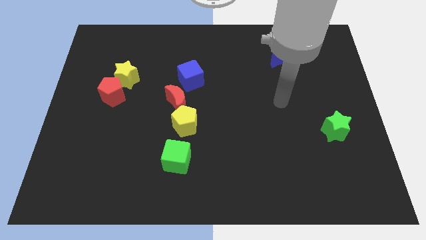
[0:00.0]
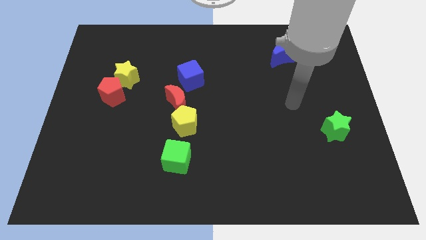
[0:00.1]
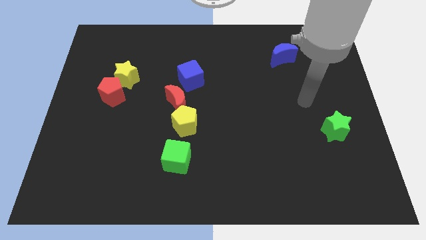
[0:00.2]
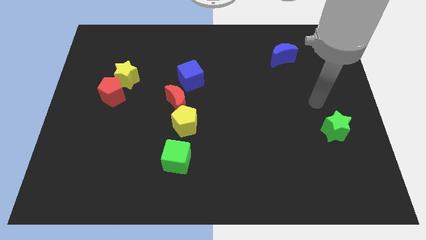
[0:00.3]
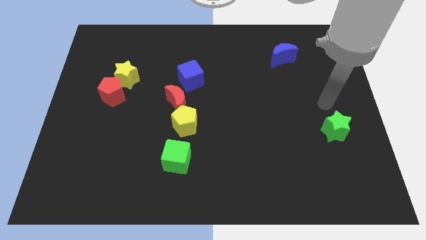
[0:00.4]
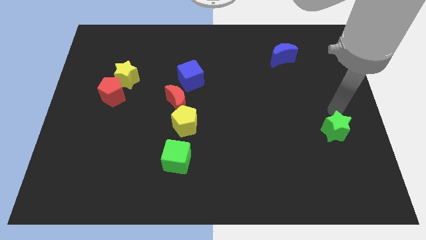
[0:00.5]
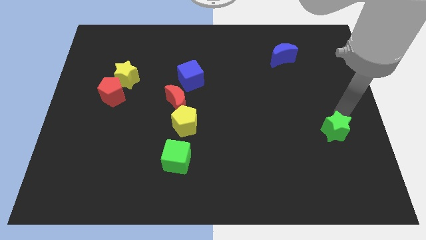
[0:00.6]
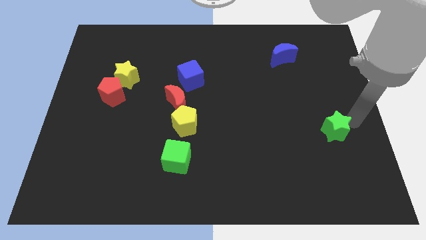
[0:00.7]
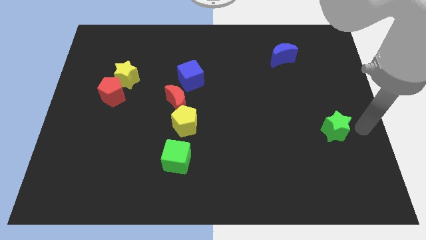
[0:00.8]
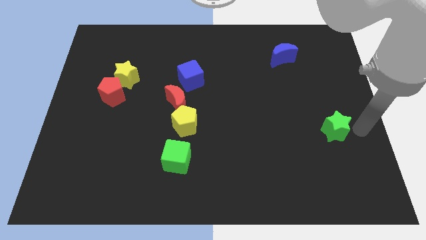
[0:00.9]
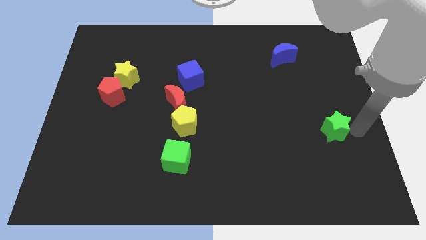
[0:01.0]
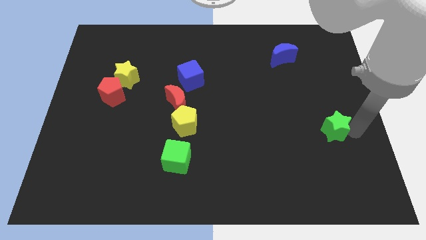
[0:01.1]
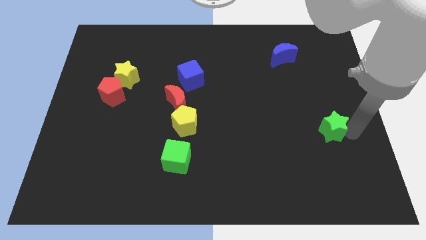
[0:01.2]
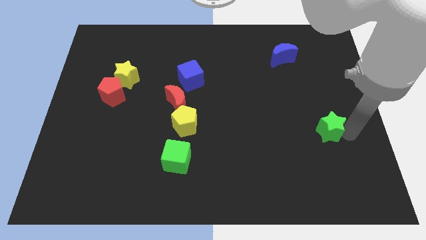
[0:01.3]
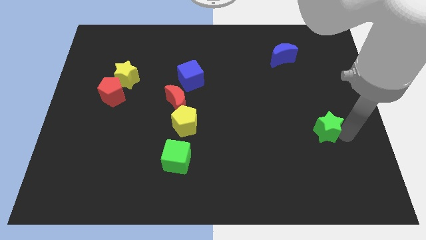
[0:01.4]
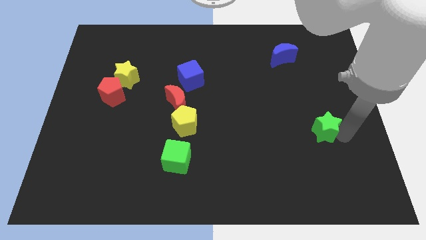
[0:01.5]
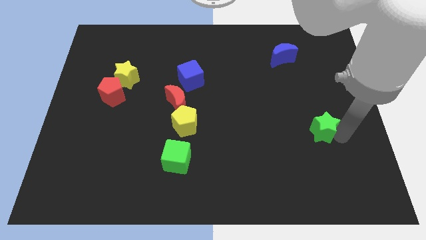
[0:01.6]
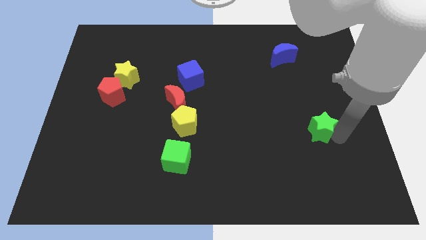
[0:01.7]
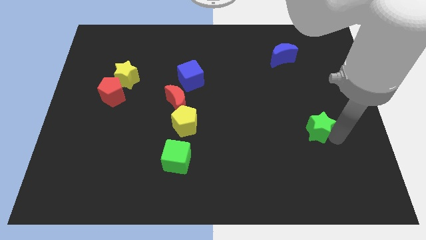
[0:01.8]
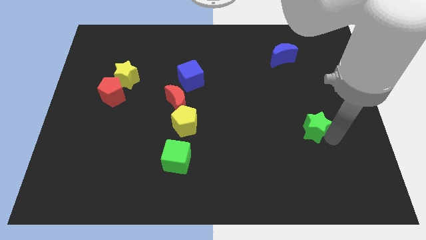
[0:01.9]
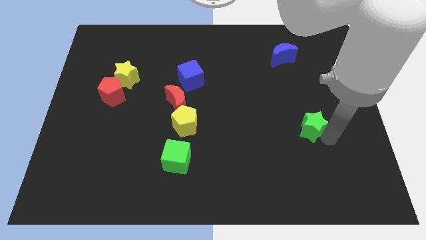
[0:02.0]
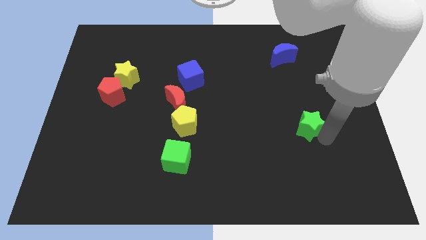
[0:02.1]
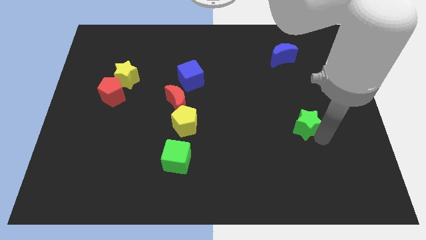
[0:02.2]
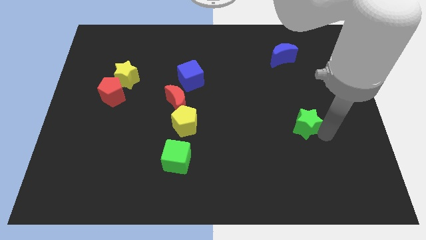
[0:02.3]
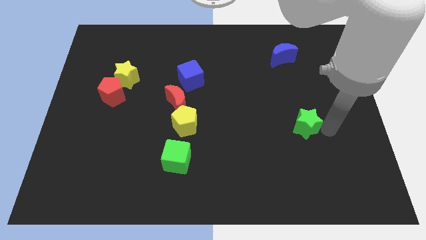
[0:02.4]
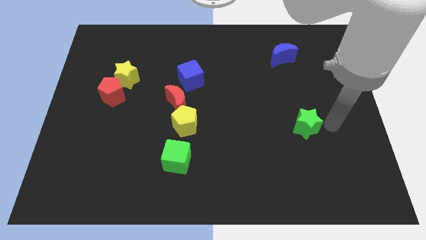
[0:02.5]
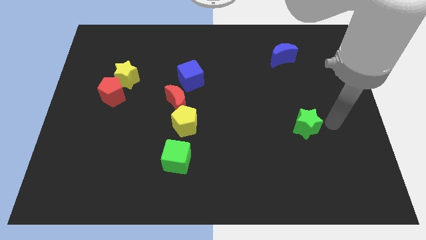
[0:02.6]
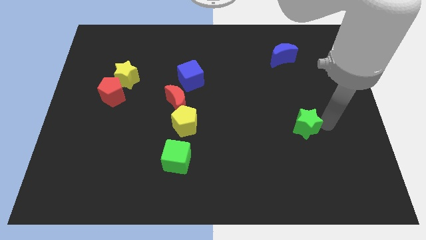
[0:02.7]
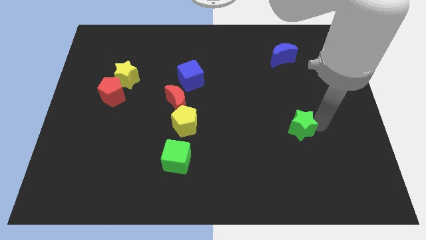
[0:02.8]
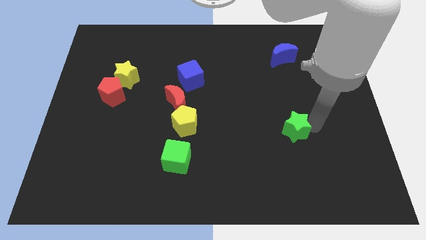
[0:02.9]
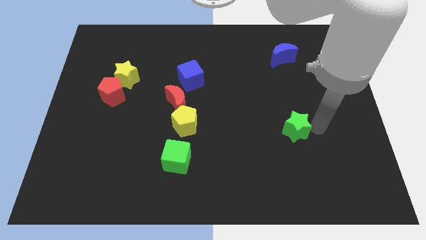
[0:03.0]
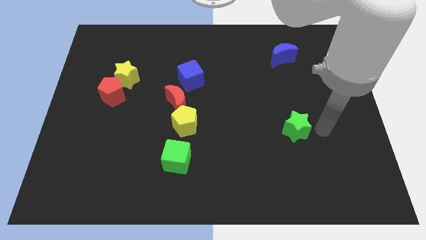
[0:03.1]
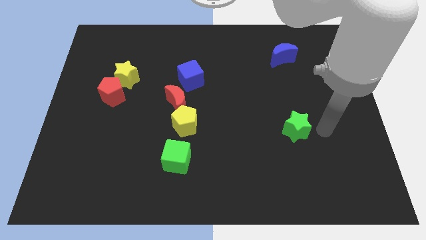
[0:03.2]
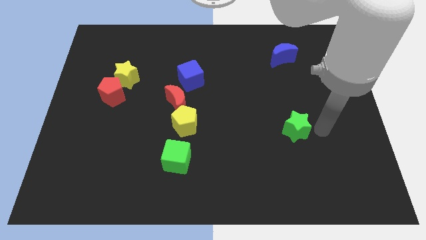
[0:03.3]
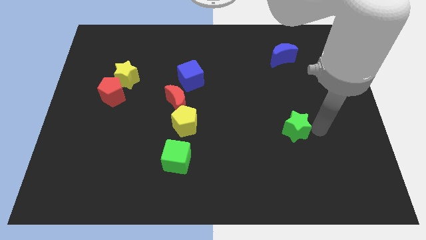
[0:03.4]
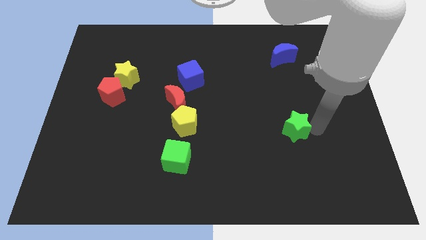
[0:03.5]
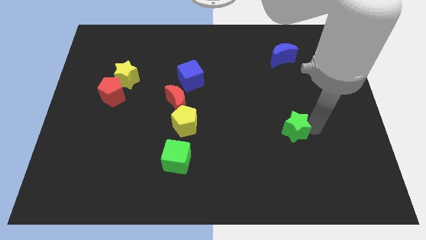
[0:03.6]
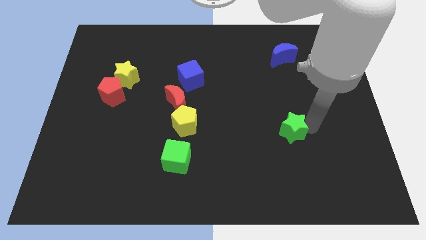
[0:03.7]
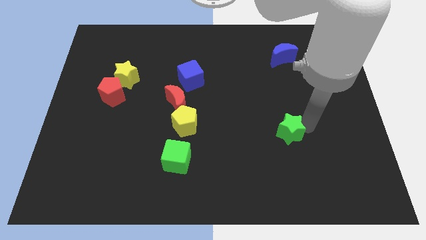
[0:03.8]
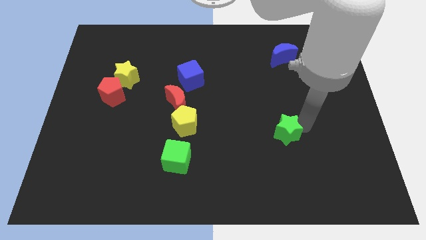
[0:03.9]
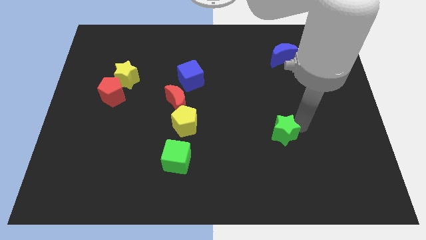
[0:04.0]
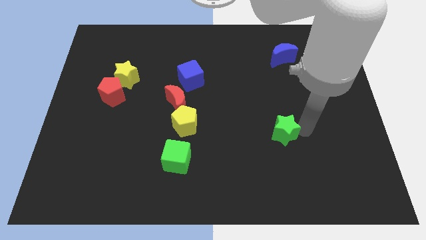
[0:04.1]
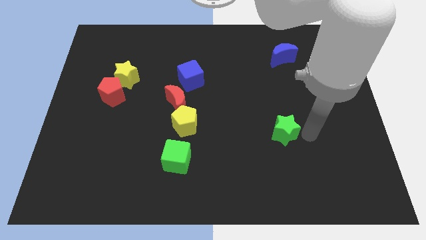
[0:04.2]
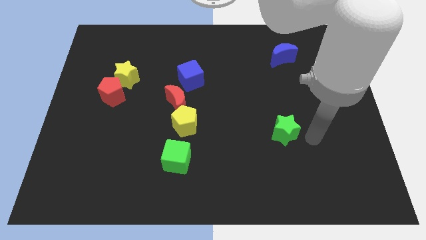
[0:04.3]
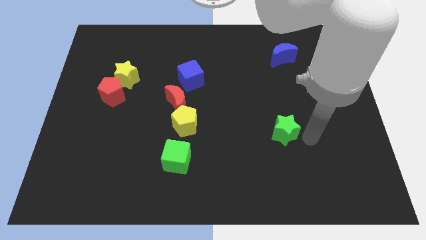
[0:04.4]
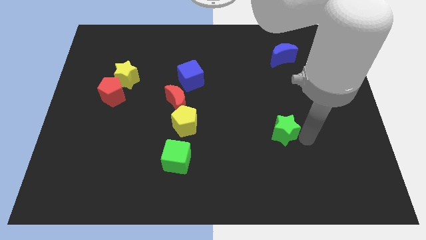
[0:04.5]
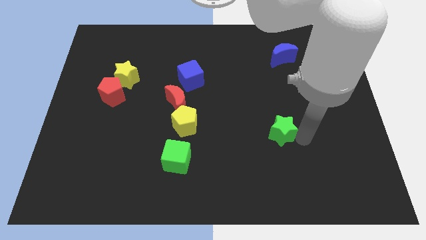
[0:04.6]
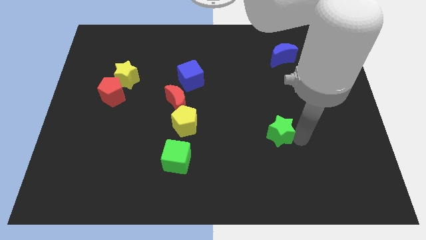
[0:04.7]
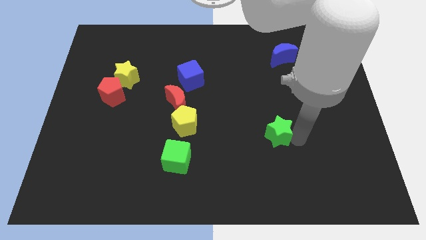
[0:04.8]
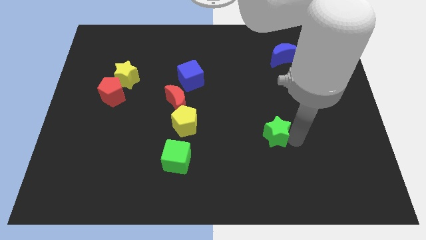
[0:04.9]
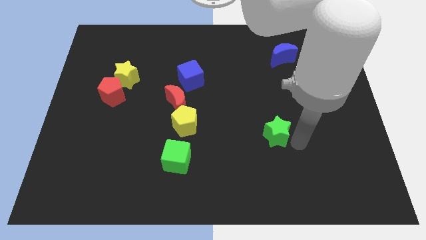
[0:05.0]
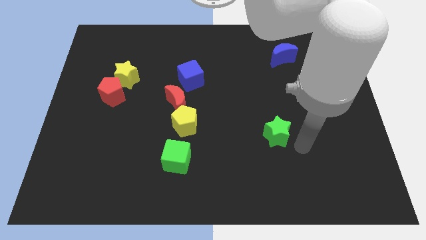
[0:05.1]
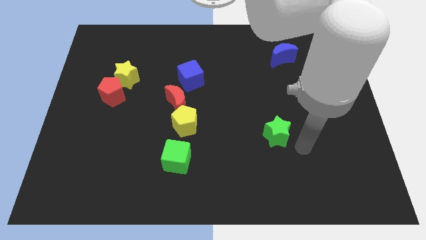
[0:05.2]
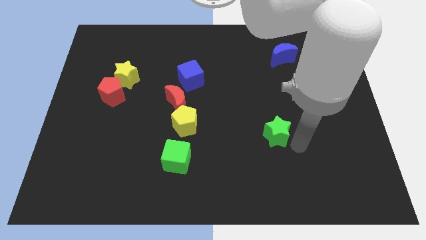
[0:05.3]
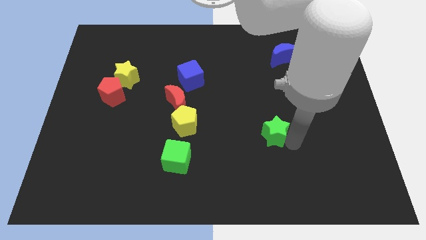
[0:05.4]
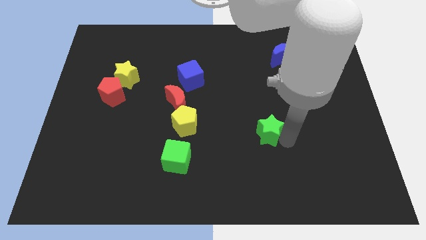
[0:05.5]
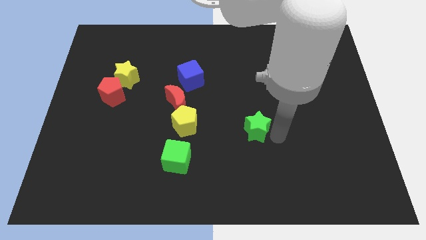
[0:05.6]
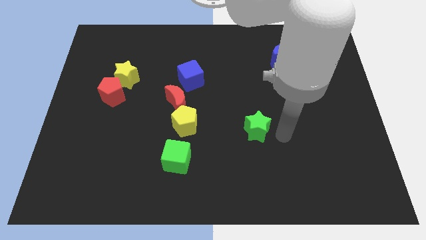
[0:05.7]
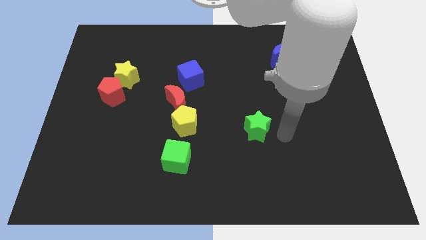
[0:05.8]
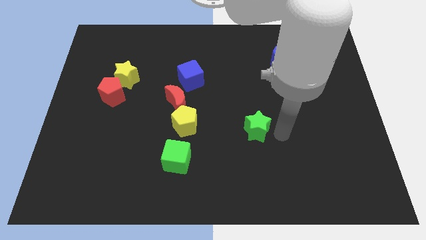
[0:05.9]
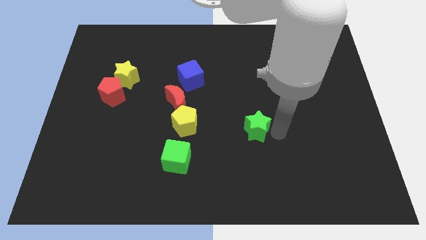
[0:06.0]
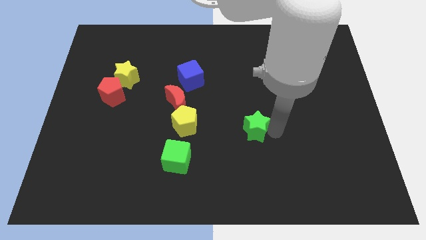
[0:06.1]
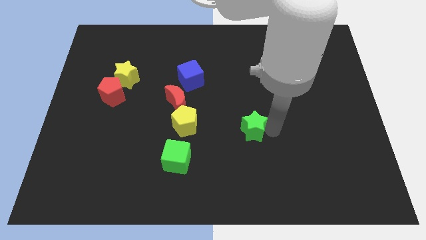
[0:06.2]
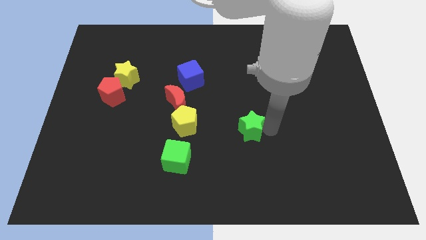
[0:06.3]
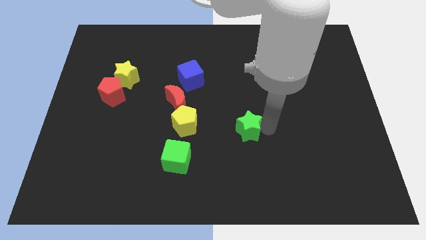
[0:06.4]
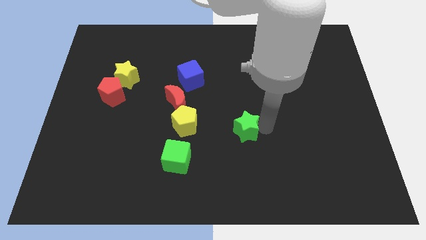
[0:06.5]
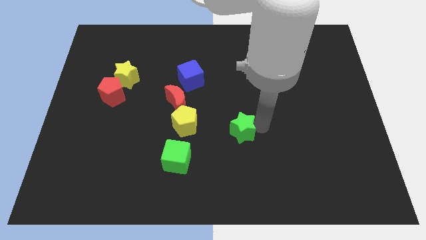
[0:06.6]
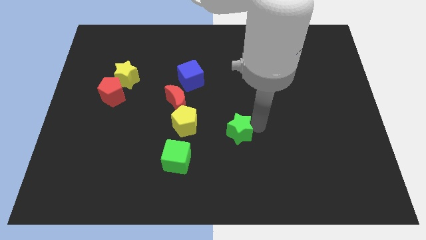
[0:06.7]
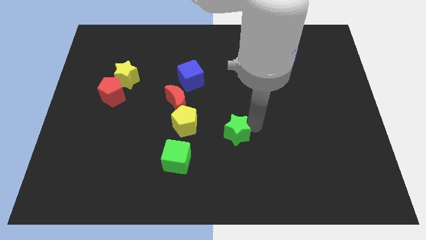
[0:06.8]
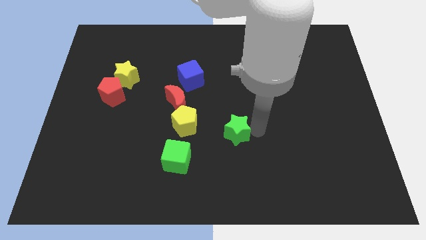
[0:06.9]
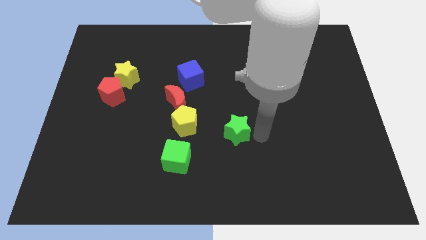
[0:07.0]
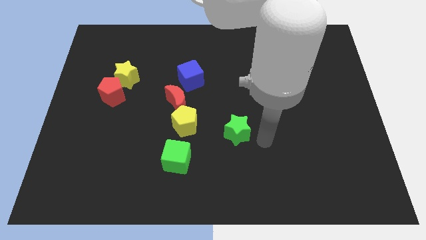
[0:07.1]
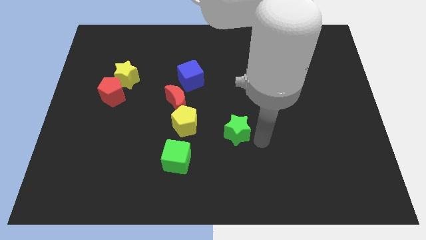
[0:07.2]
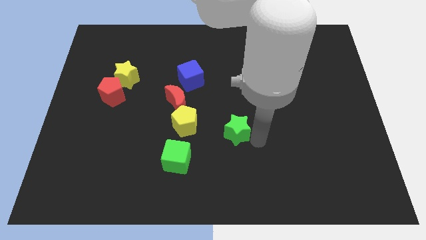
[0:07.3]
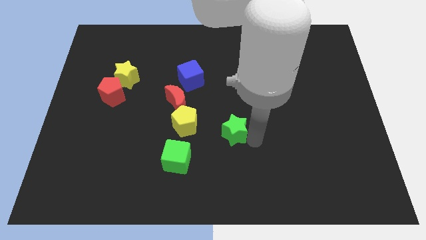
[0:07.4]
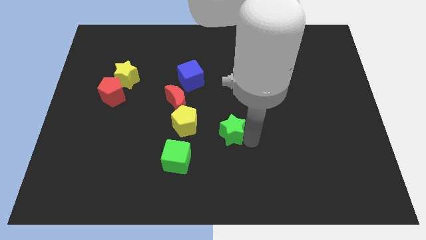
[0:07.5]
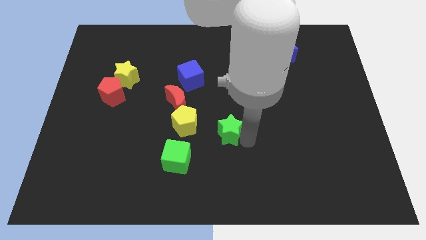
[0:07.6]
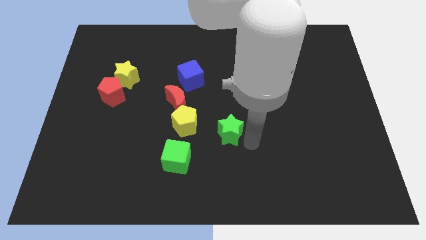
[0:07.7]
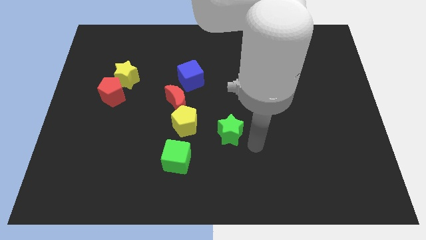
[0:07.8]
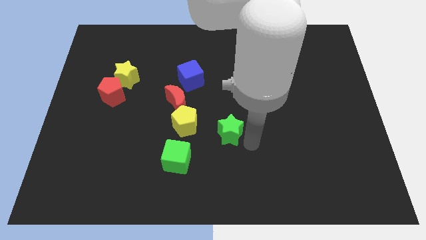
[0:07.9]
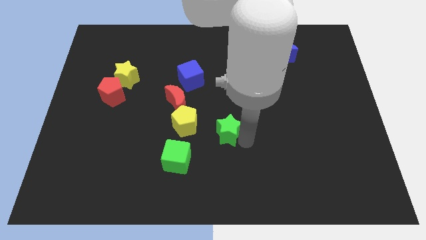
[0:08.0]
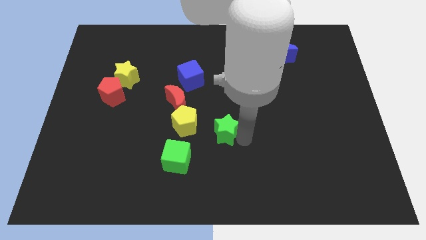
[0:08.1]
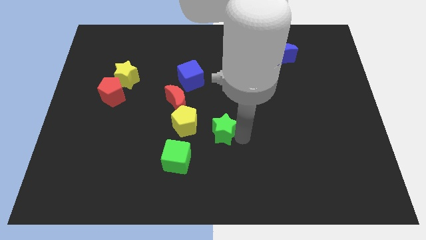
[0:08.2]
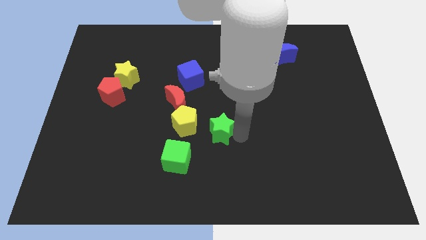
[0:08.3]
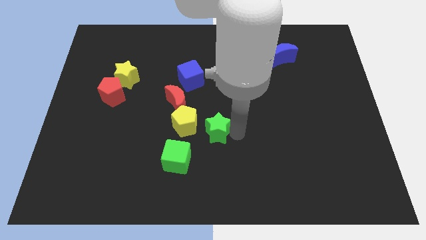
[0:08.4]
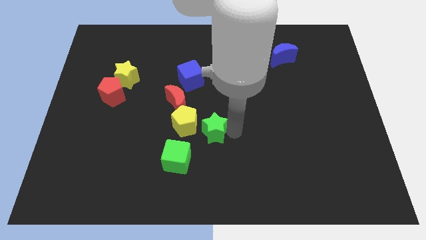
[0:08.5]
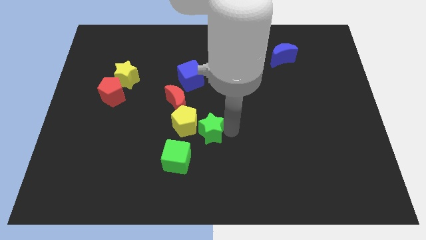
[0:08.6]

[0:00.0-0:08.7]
slide the green star close to the yellow pentagon
